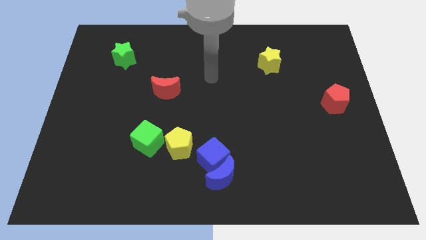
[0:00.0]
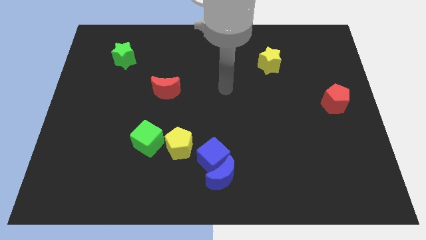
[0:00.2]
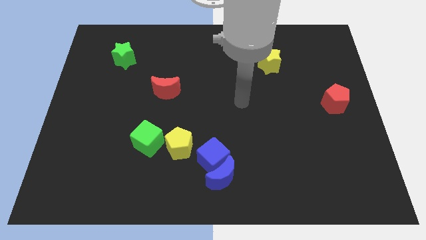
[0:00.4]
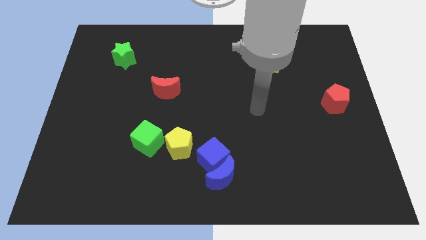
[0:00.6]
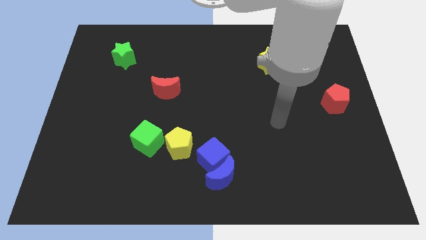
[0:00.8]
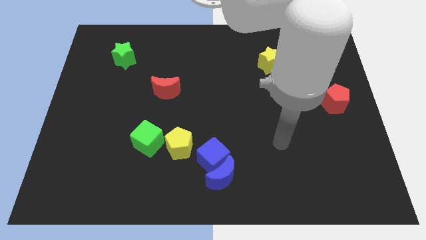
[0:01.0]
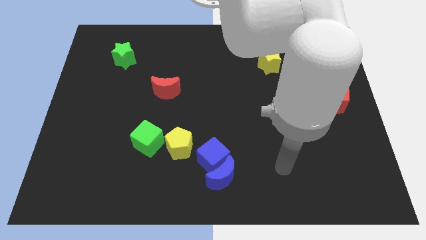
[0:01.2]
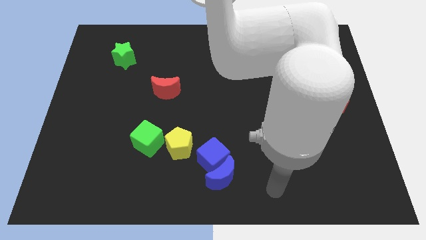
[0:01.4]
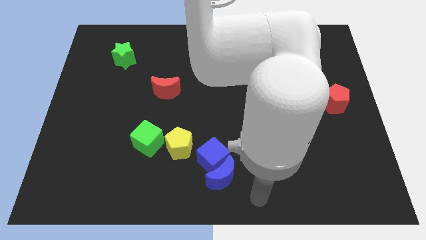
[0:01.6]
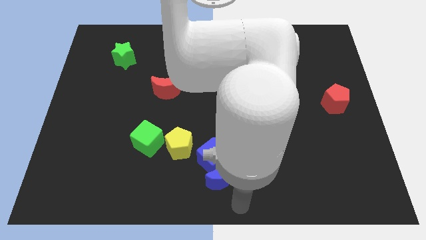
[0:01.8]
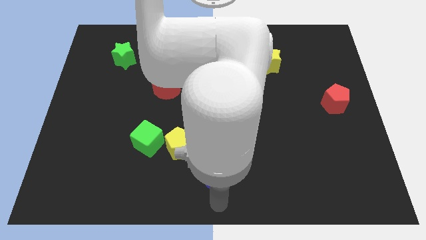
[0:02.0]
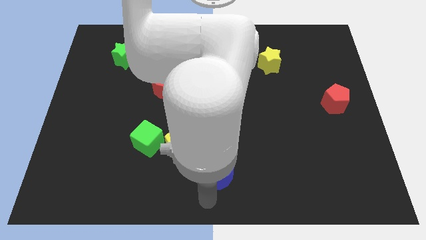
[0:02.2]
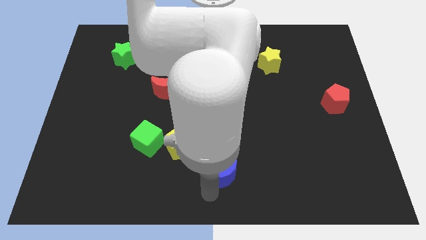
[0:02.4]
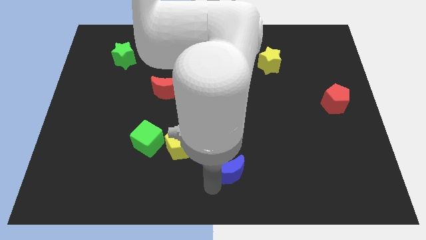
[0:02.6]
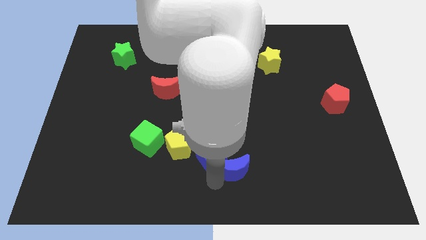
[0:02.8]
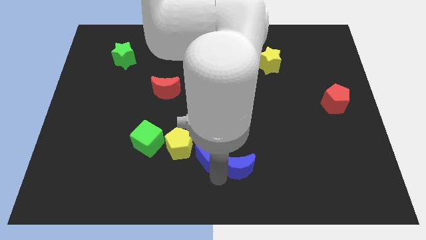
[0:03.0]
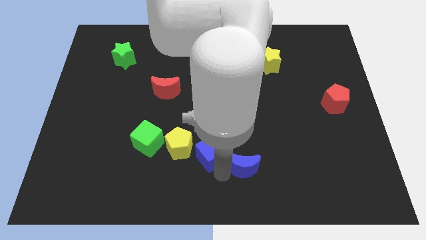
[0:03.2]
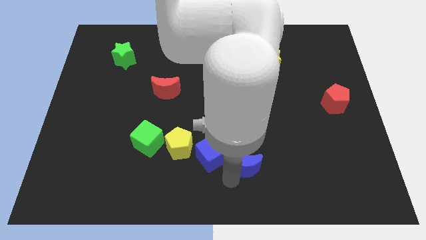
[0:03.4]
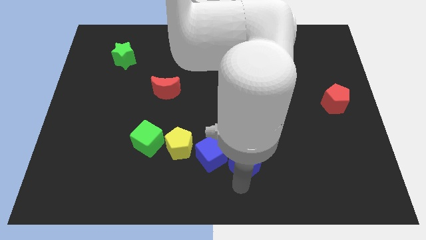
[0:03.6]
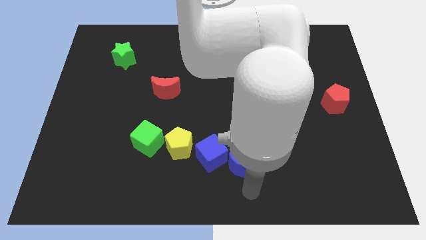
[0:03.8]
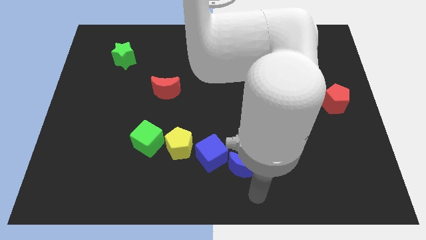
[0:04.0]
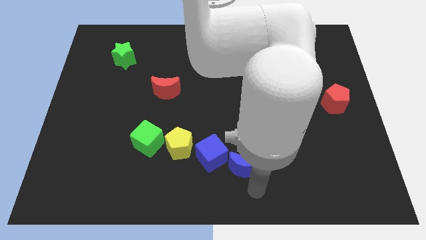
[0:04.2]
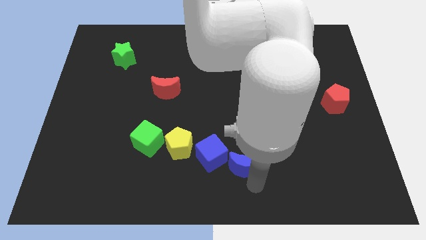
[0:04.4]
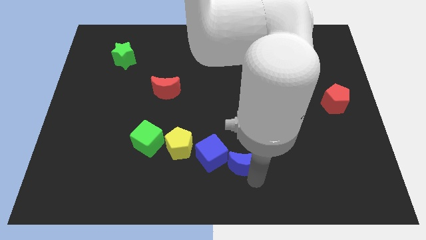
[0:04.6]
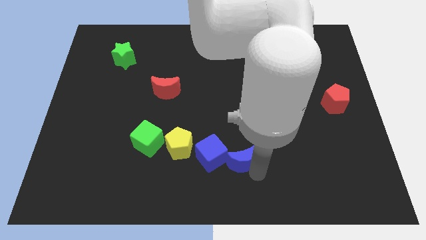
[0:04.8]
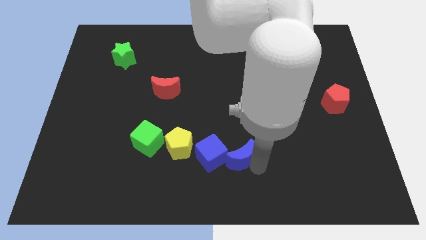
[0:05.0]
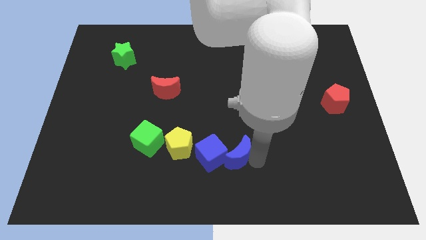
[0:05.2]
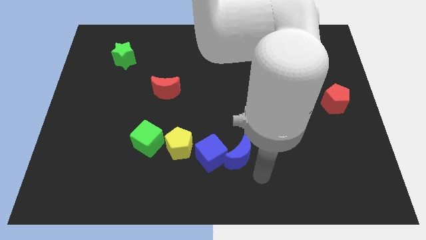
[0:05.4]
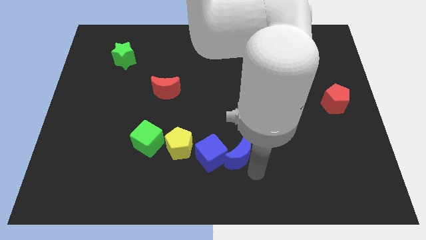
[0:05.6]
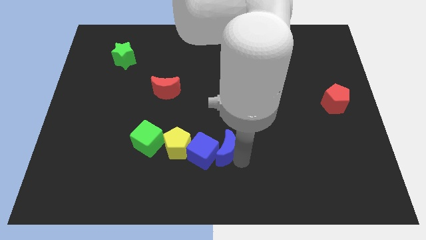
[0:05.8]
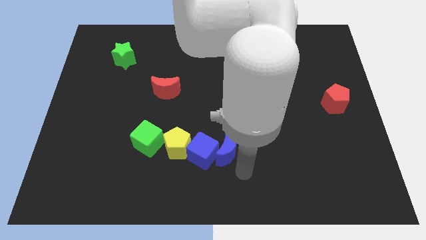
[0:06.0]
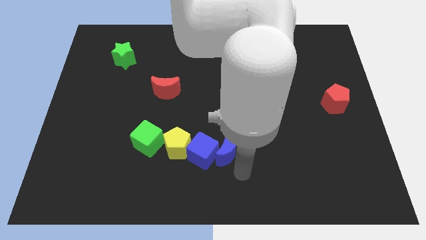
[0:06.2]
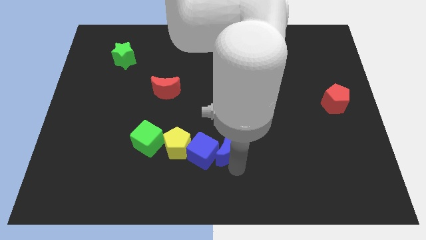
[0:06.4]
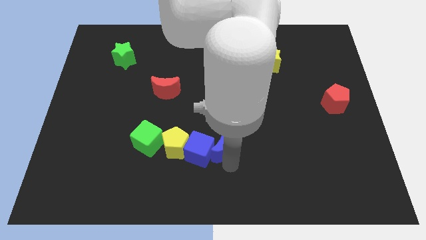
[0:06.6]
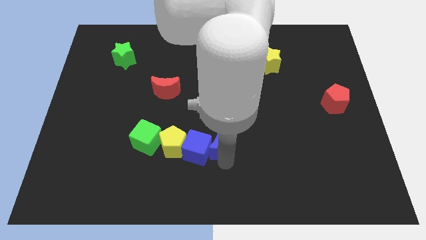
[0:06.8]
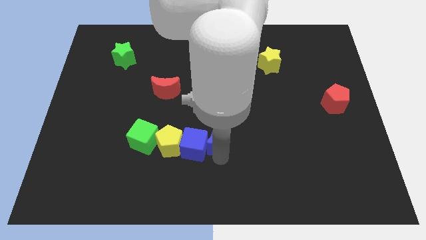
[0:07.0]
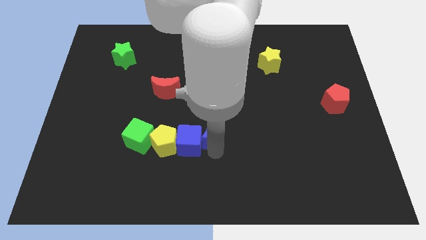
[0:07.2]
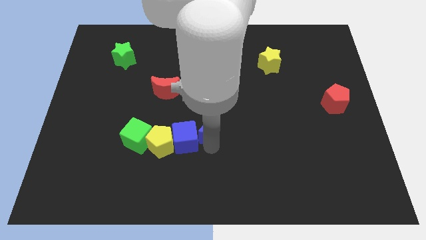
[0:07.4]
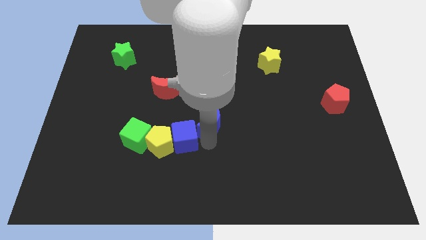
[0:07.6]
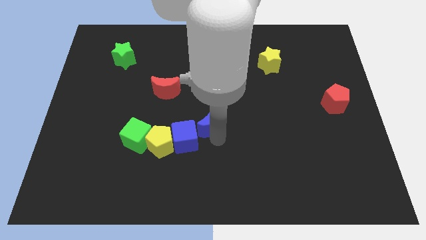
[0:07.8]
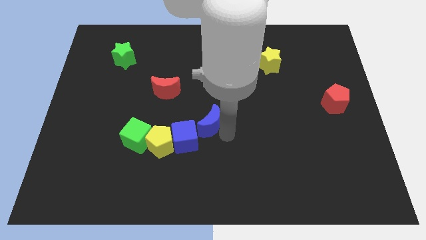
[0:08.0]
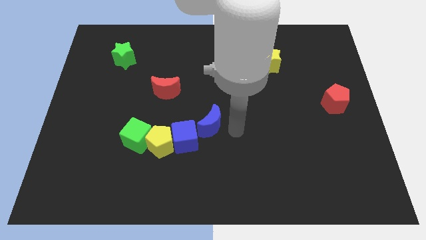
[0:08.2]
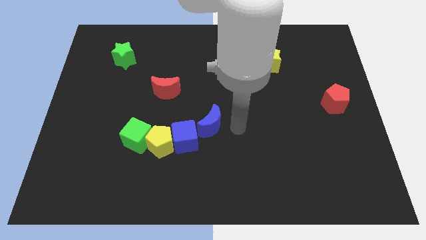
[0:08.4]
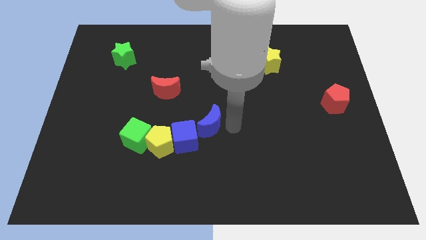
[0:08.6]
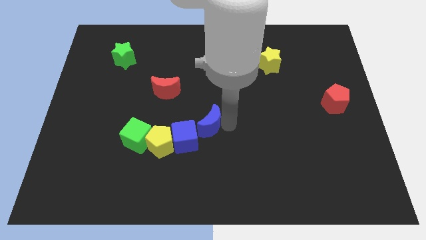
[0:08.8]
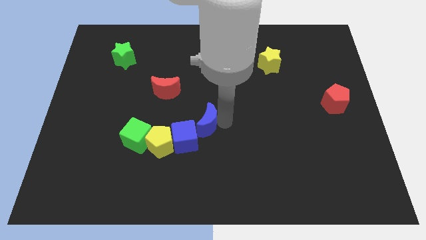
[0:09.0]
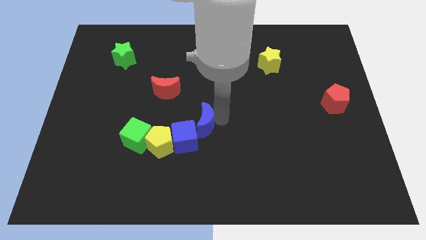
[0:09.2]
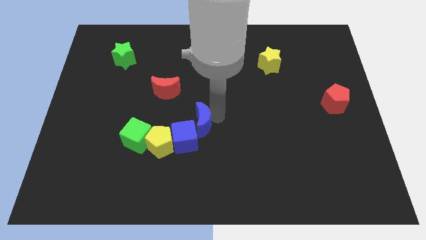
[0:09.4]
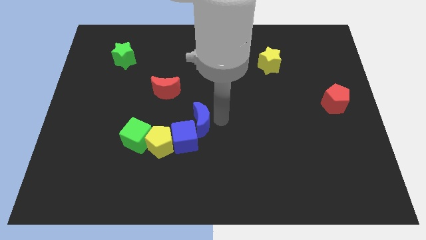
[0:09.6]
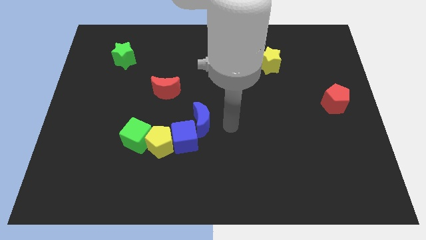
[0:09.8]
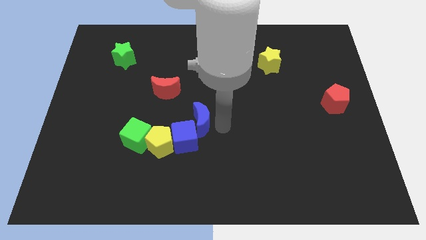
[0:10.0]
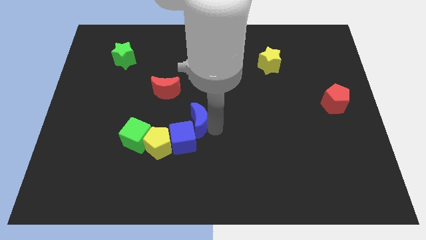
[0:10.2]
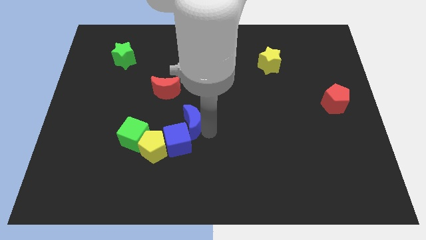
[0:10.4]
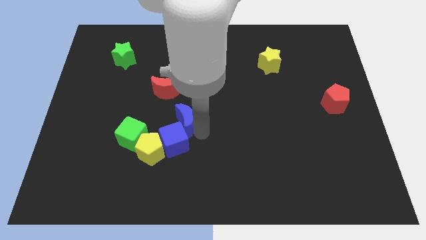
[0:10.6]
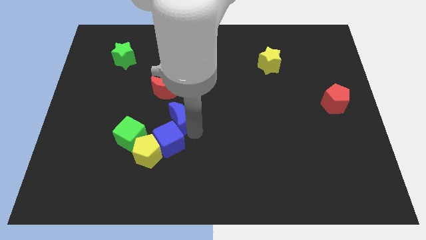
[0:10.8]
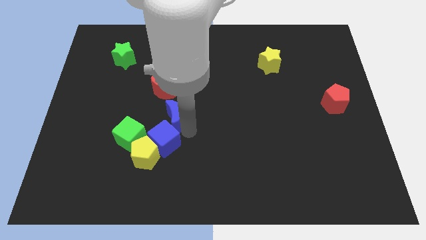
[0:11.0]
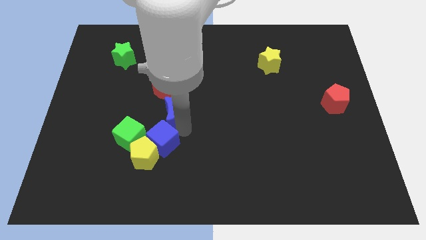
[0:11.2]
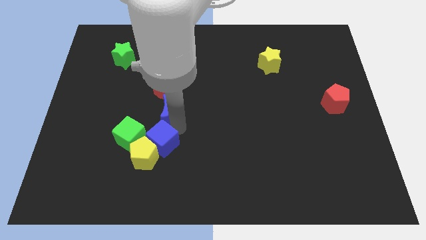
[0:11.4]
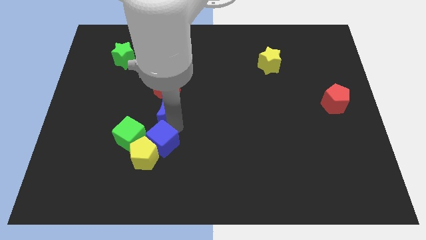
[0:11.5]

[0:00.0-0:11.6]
slide the blue moon upwards and to the left diagonally

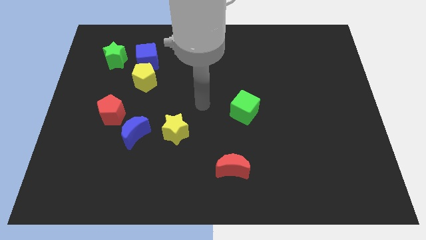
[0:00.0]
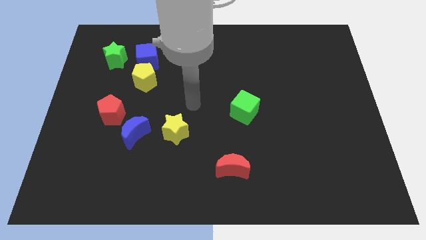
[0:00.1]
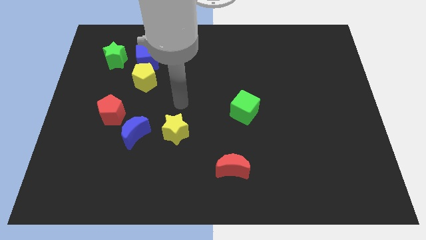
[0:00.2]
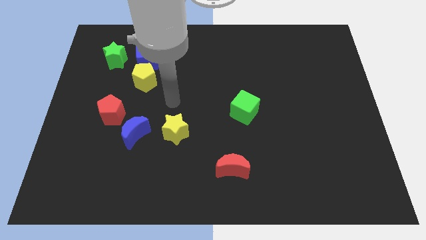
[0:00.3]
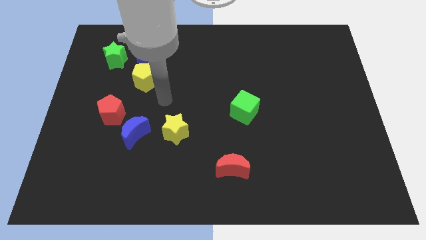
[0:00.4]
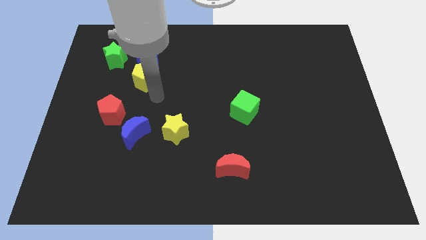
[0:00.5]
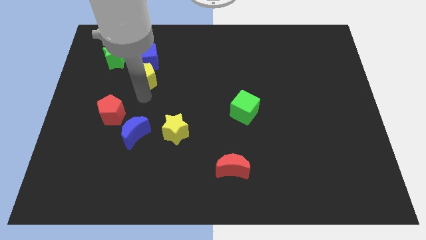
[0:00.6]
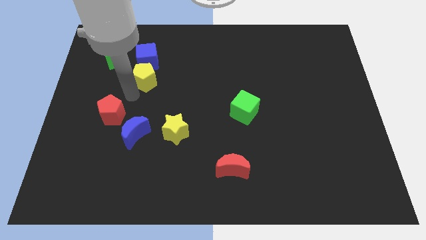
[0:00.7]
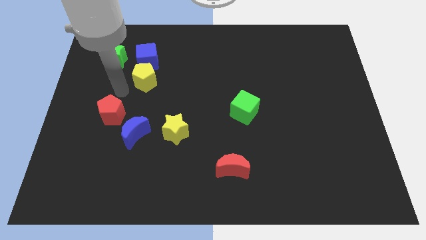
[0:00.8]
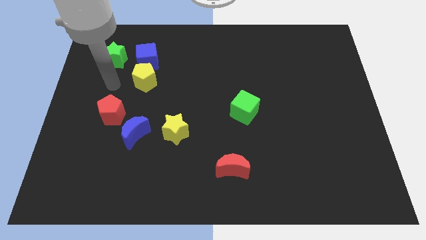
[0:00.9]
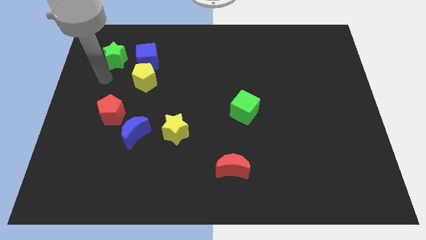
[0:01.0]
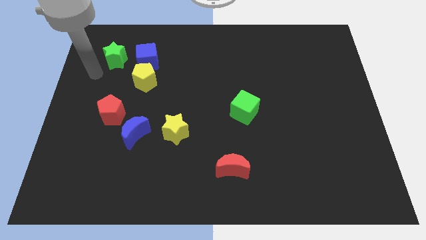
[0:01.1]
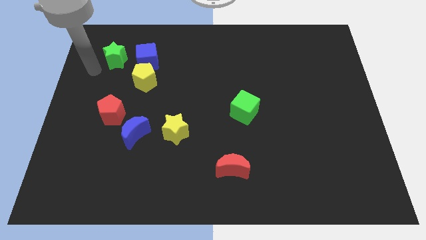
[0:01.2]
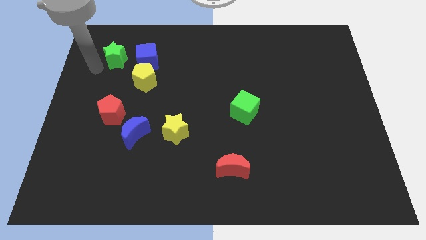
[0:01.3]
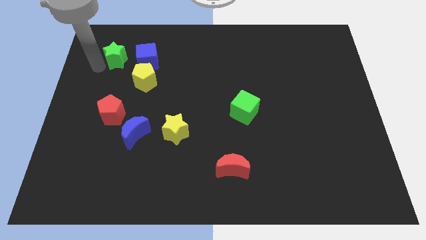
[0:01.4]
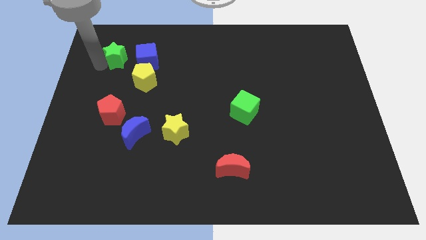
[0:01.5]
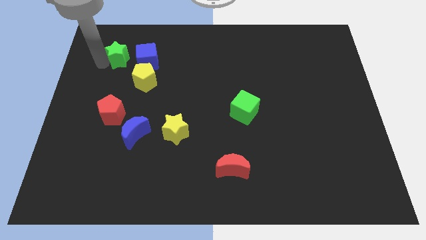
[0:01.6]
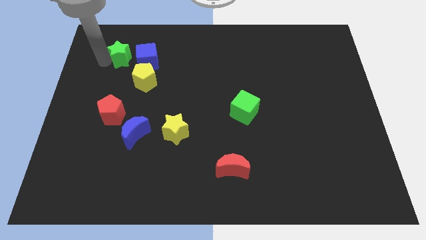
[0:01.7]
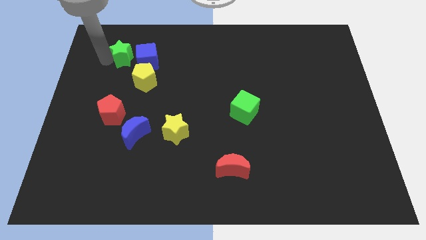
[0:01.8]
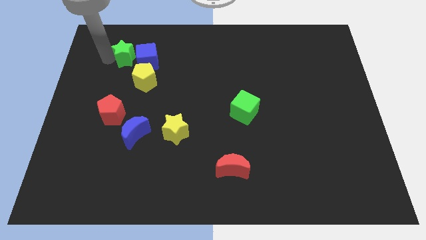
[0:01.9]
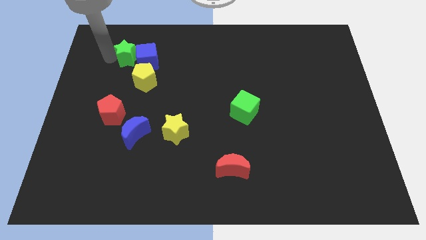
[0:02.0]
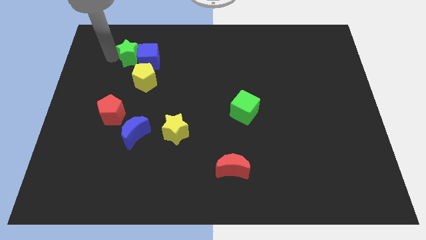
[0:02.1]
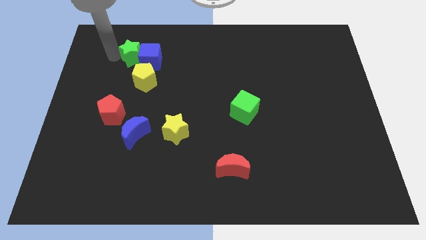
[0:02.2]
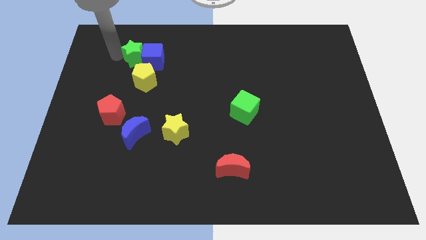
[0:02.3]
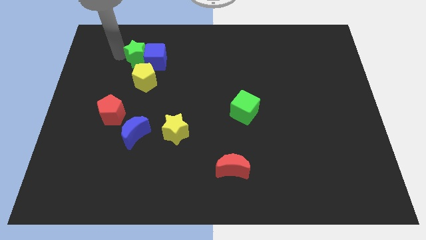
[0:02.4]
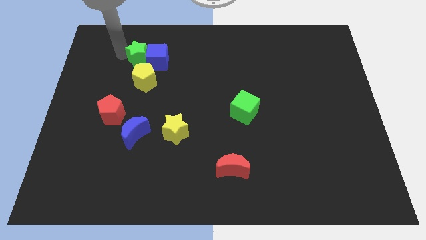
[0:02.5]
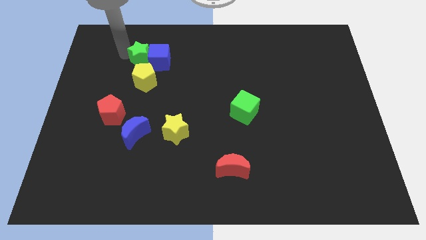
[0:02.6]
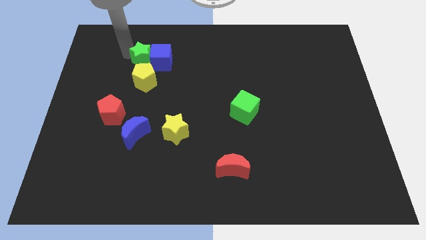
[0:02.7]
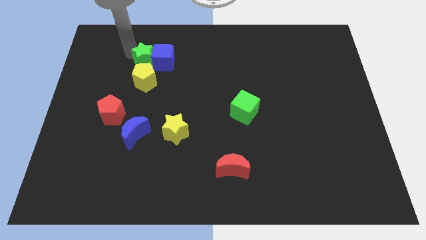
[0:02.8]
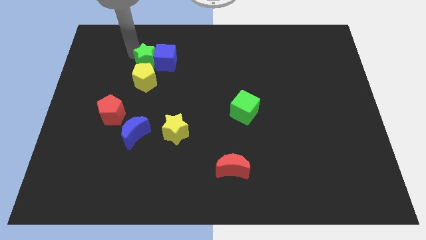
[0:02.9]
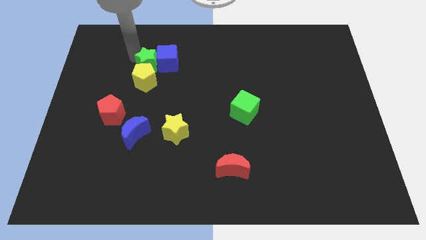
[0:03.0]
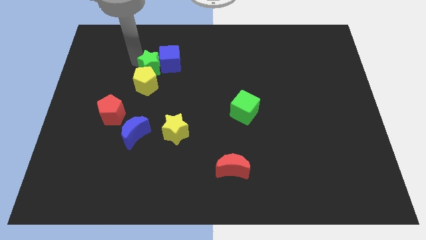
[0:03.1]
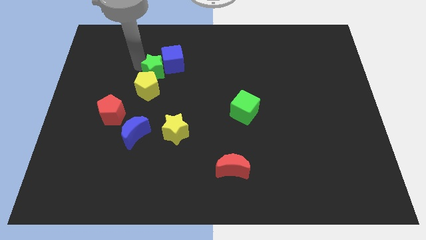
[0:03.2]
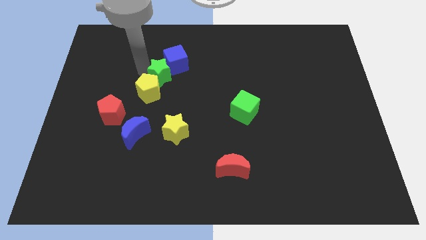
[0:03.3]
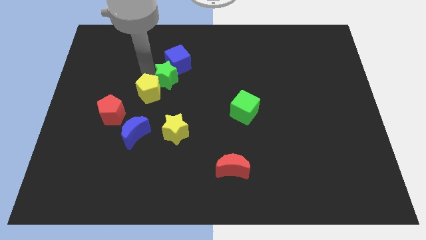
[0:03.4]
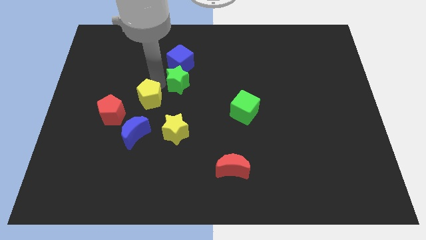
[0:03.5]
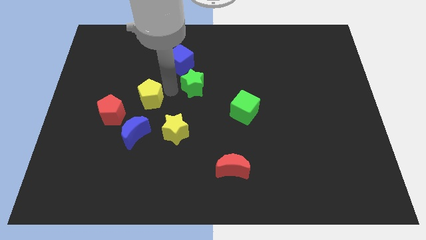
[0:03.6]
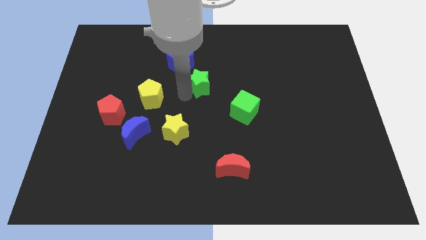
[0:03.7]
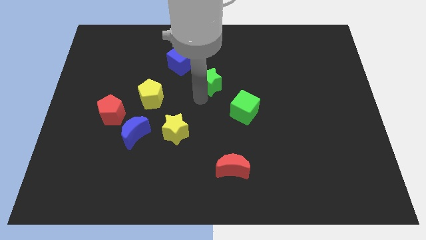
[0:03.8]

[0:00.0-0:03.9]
move the green star right
